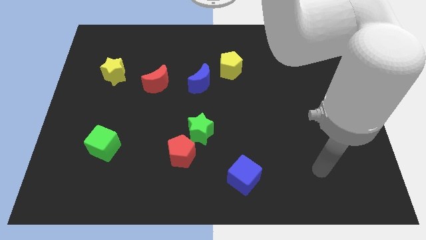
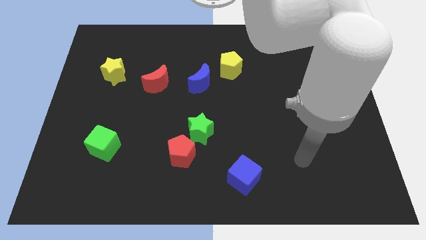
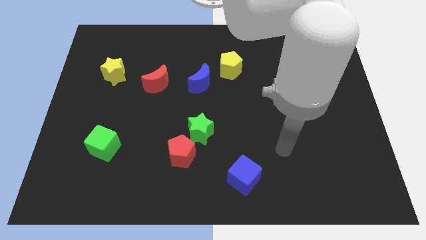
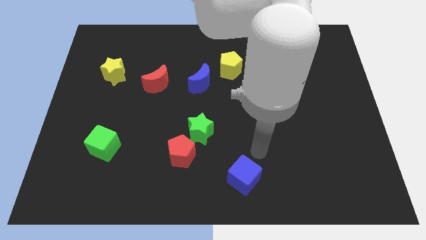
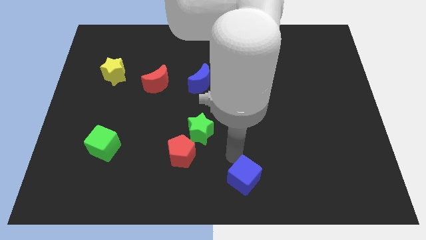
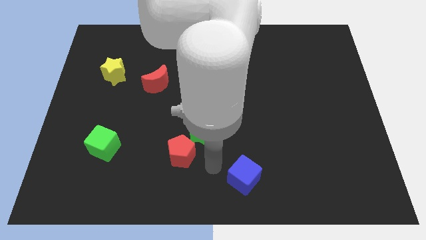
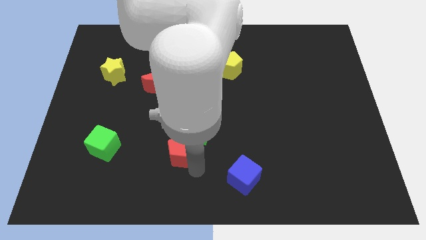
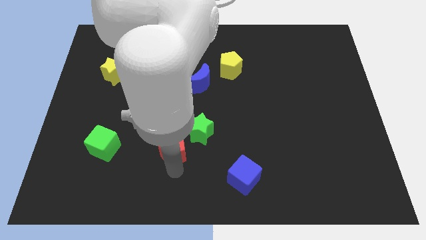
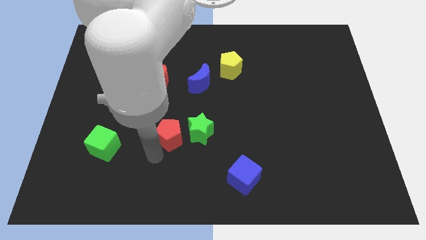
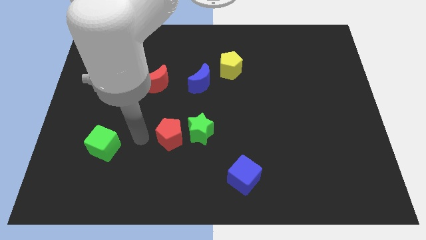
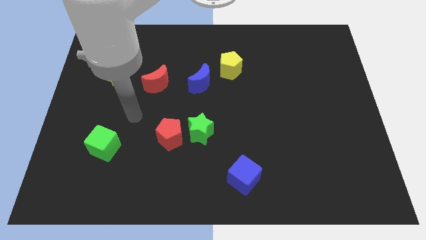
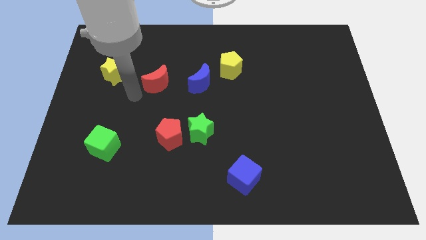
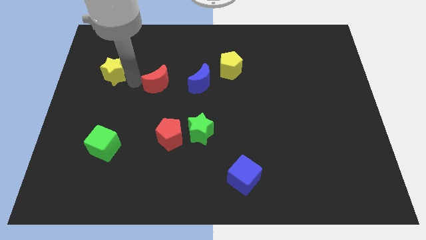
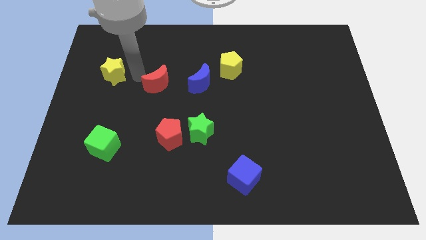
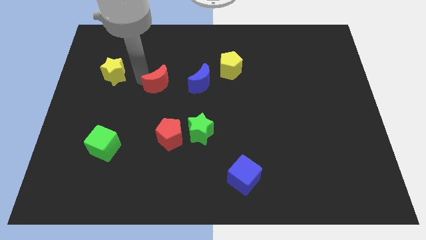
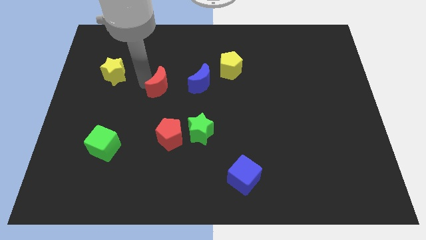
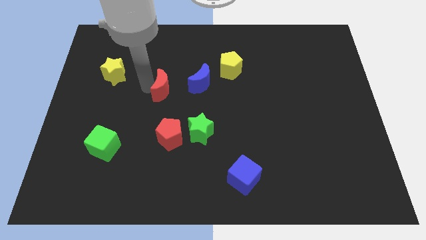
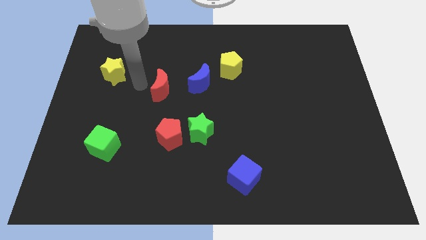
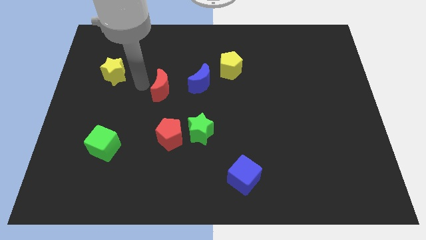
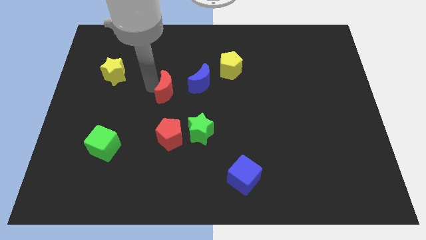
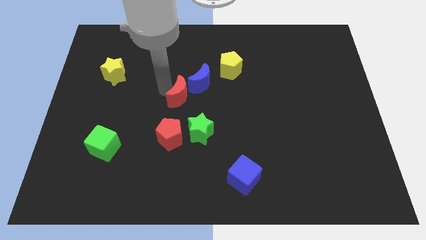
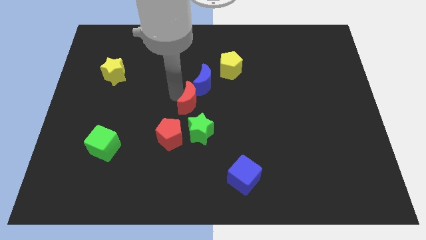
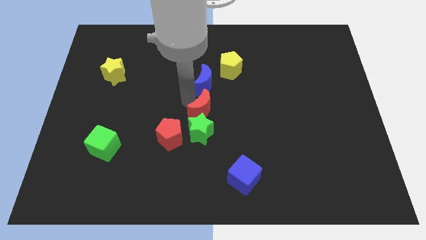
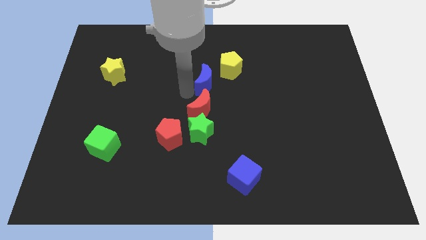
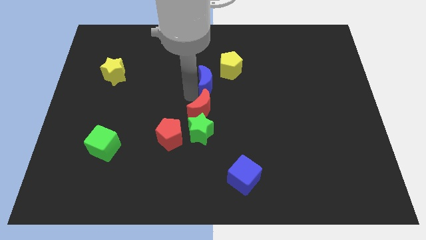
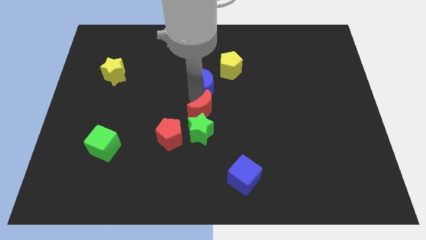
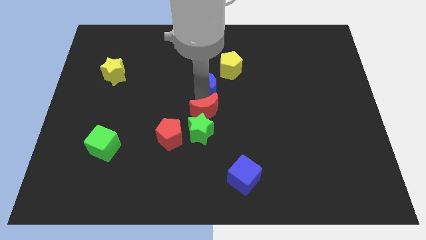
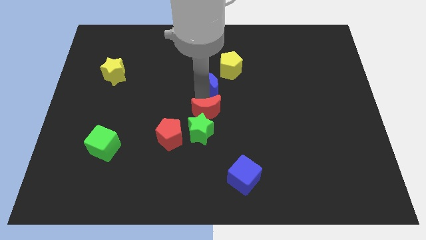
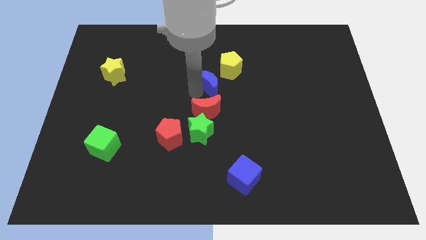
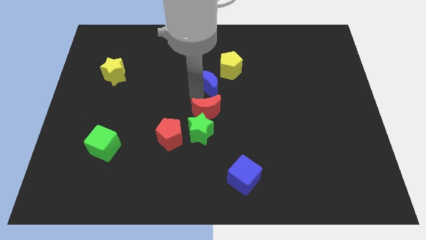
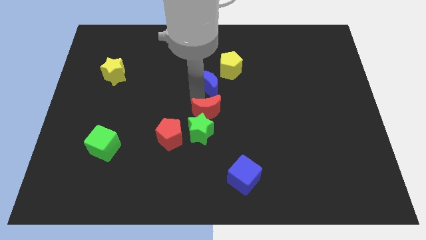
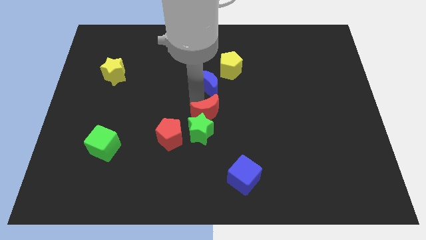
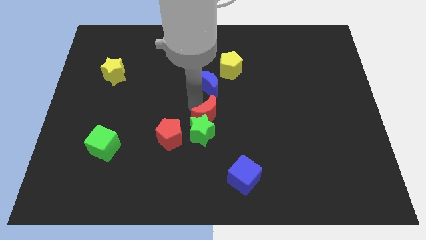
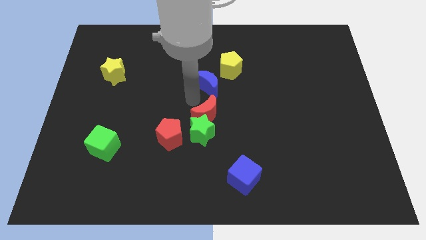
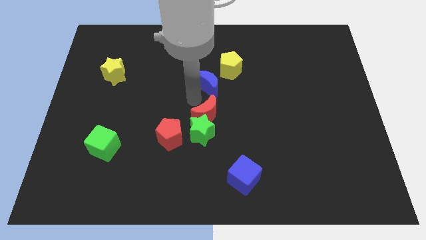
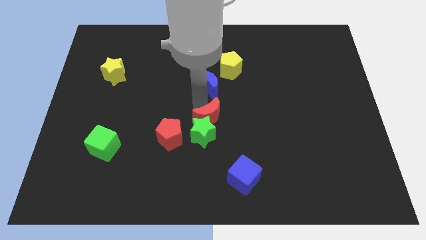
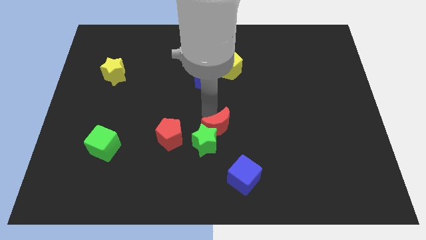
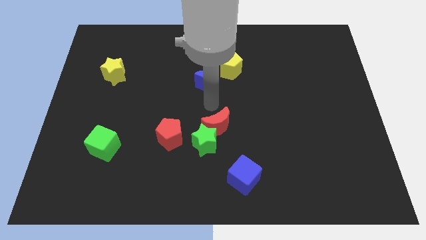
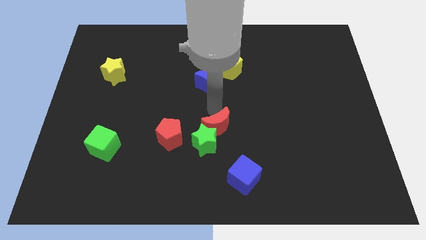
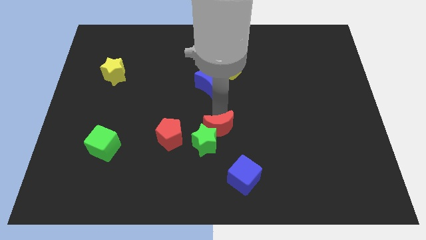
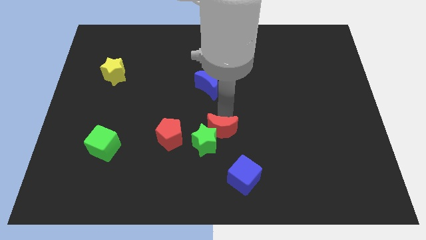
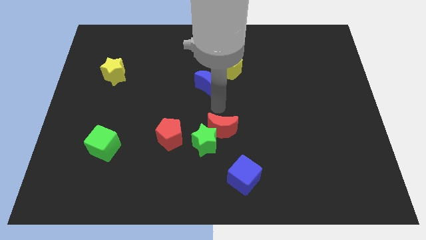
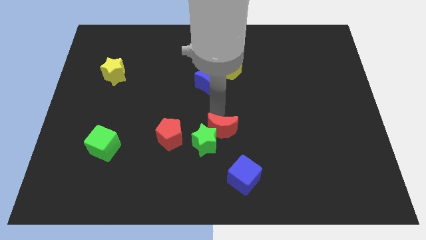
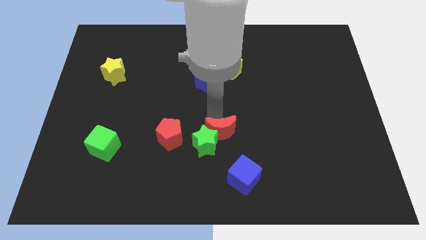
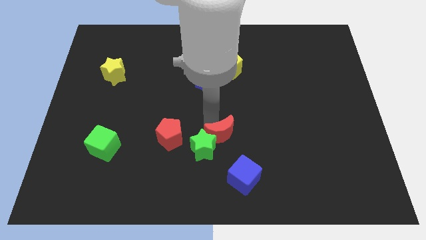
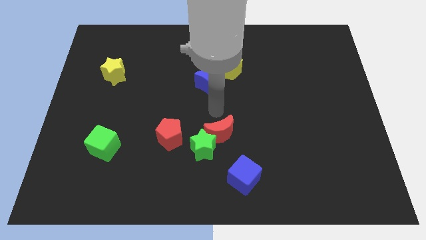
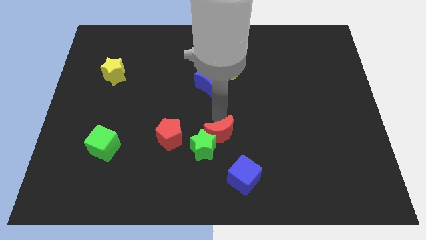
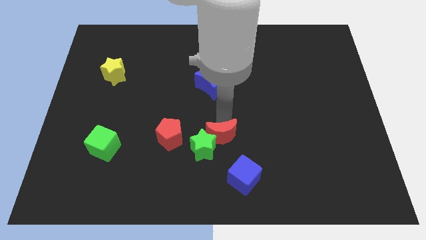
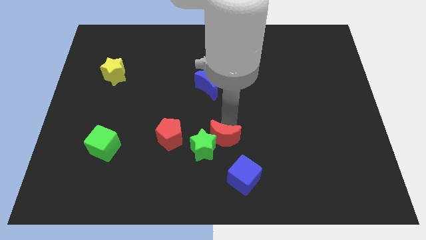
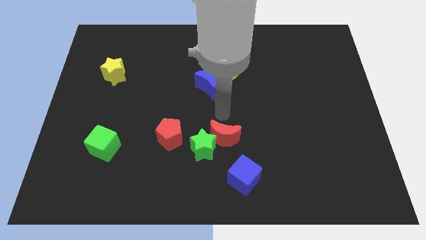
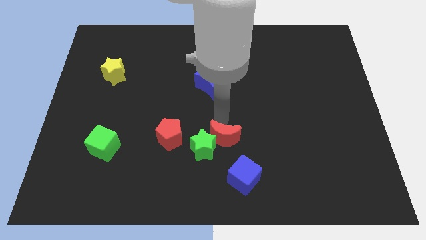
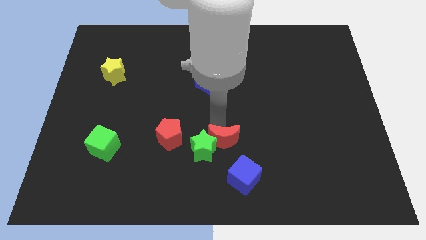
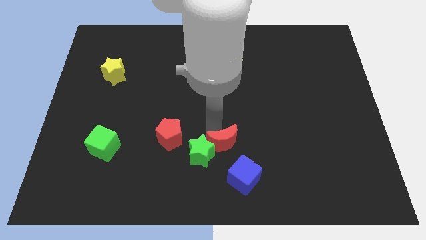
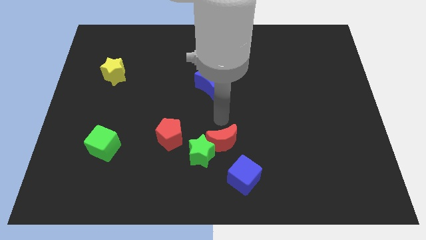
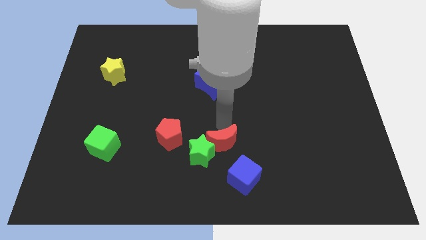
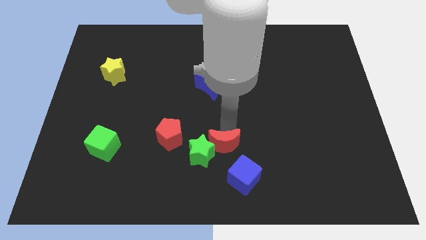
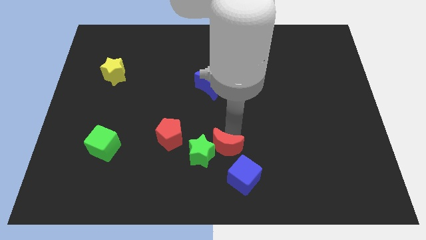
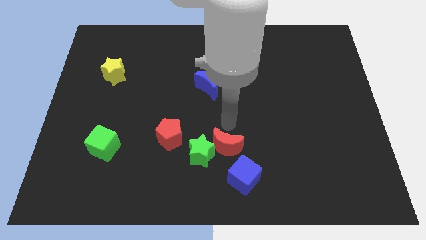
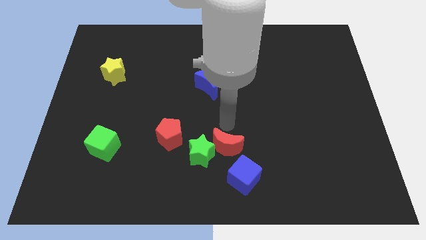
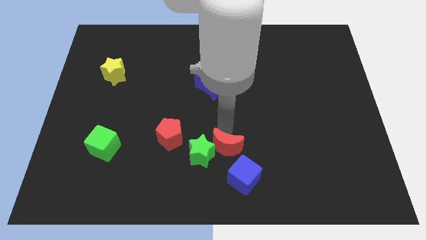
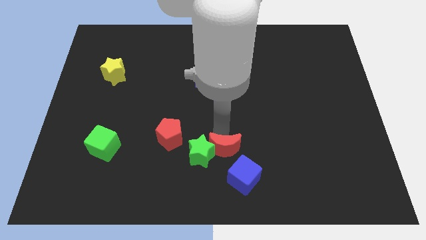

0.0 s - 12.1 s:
slide the red moon to the bottom right of the green star

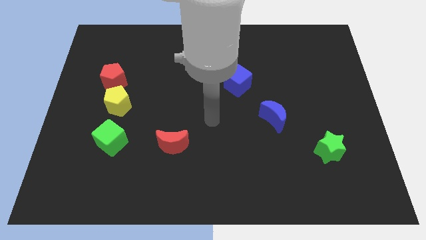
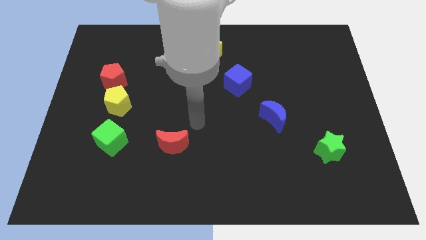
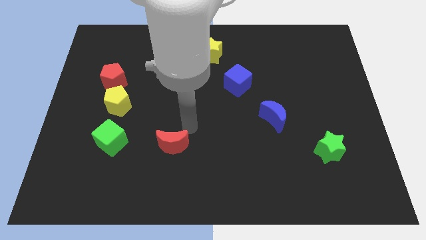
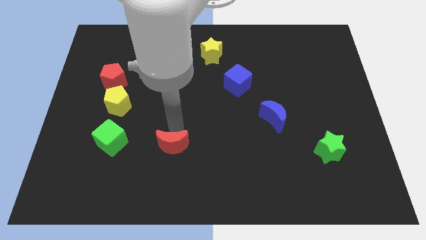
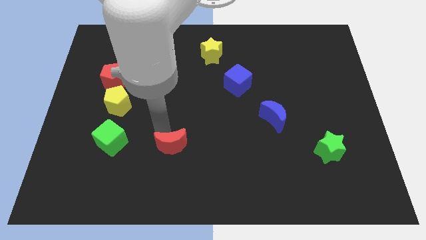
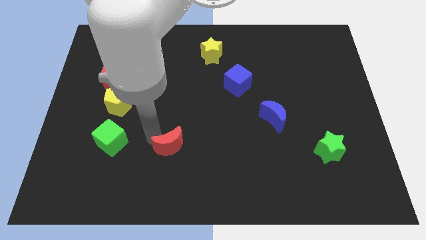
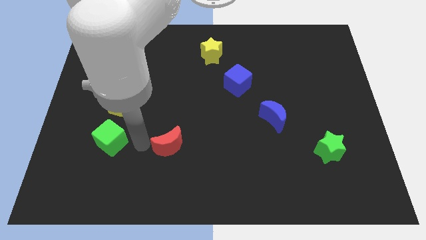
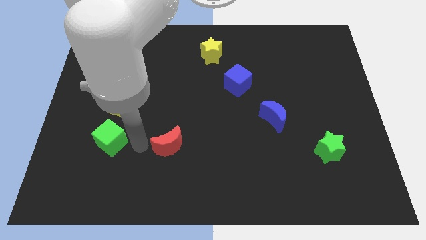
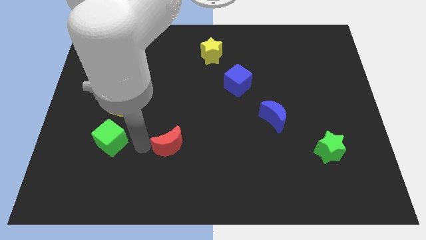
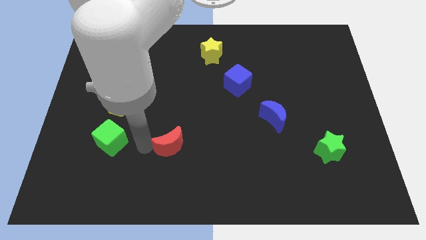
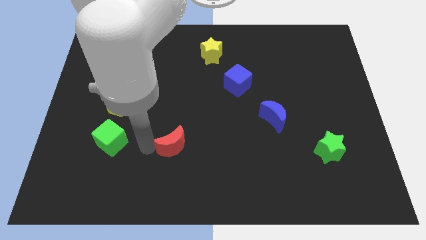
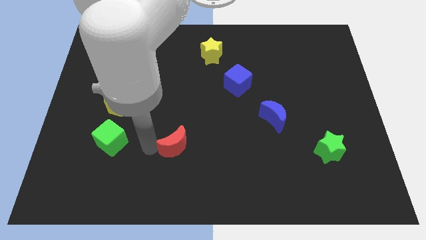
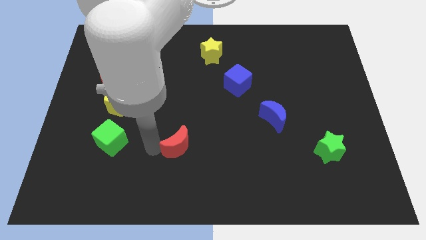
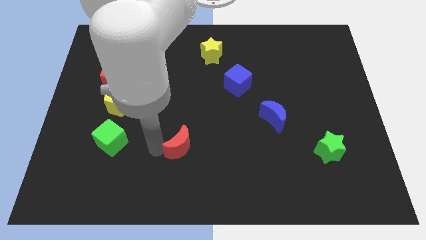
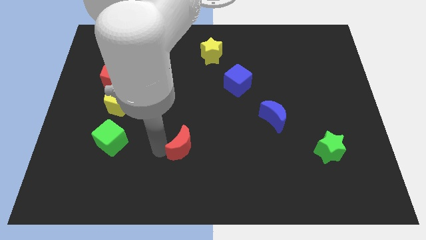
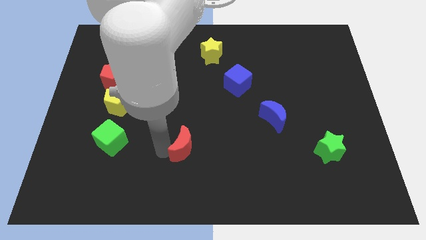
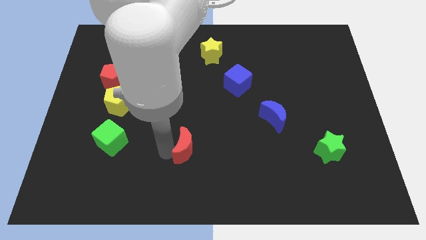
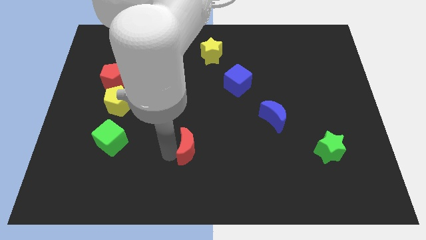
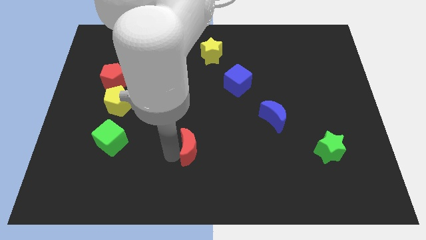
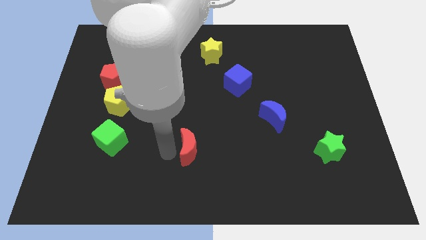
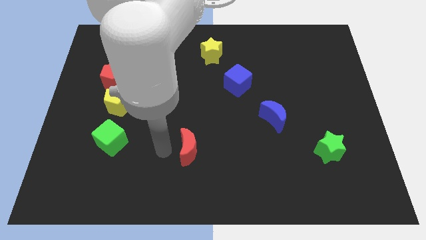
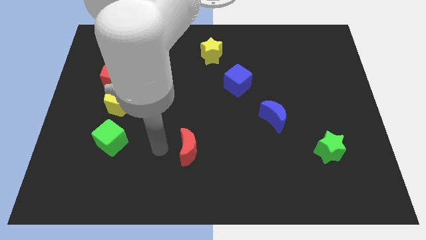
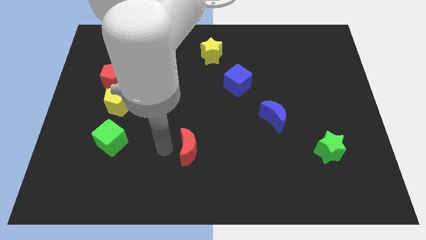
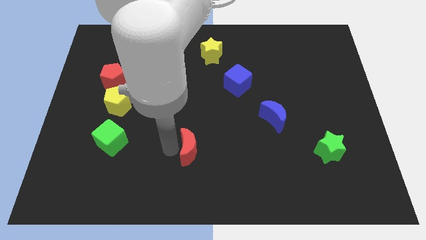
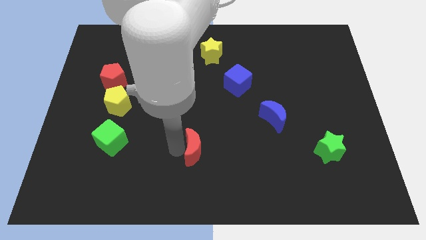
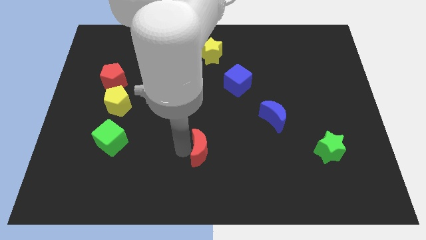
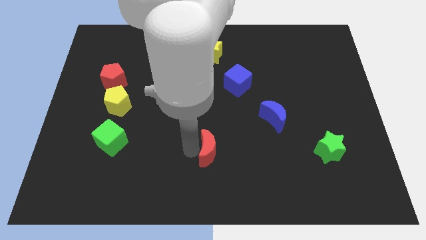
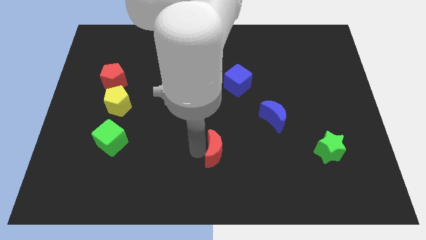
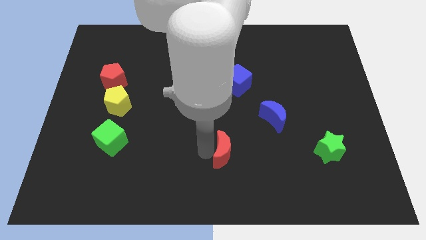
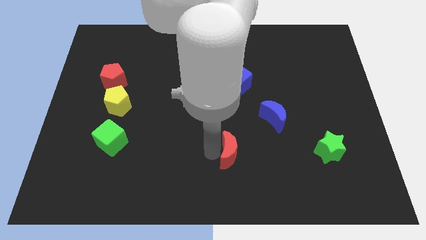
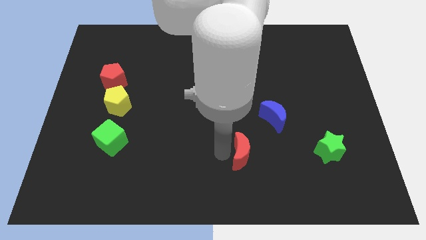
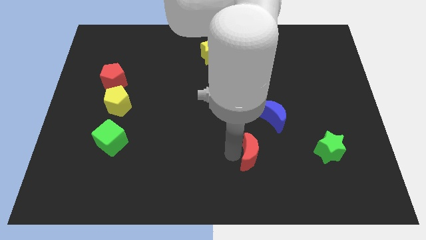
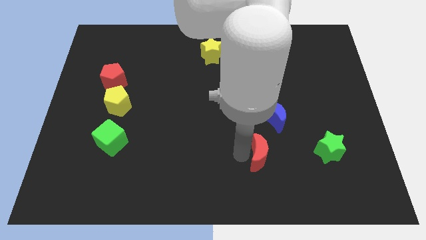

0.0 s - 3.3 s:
push the red moon to the bottom side of the blue moon
